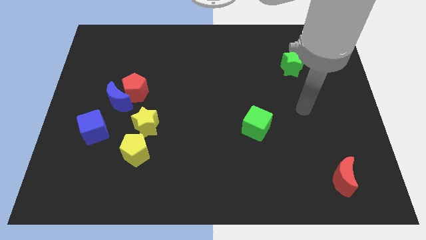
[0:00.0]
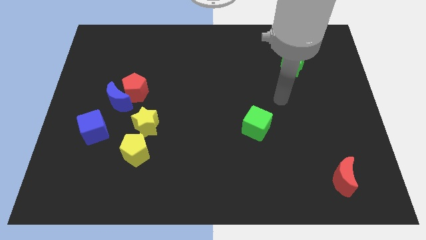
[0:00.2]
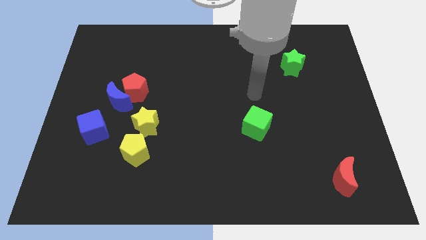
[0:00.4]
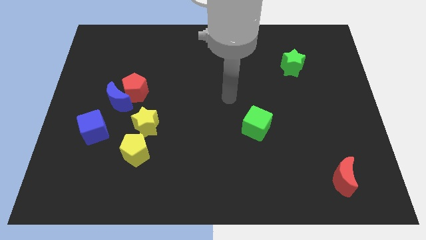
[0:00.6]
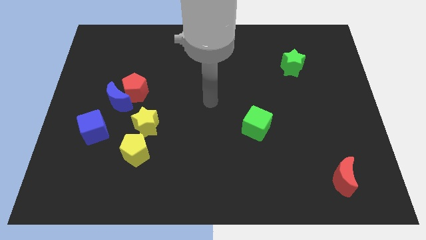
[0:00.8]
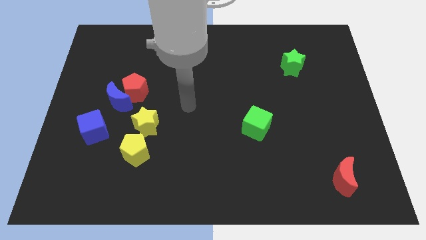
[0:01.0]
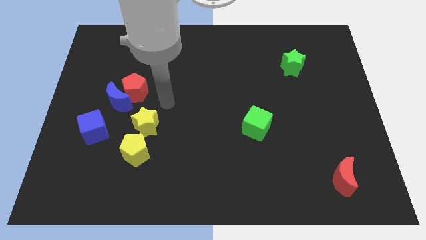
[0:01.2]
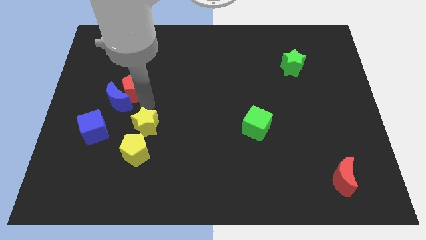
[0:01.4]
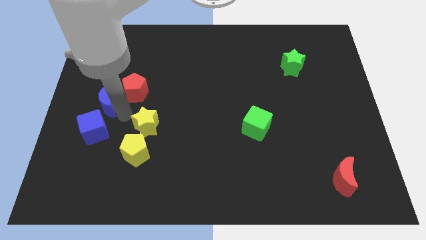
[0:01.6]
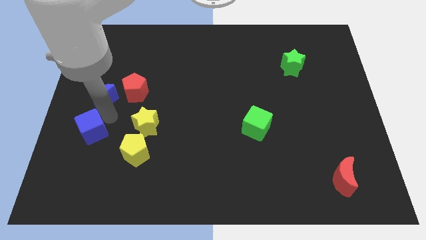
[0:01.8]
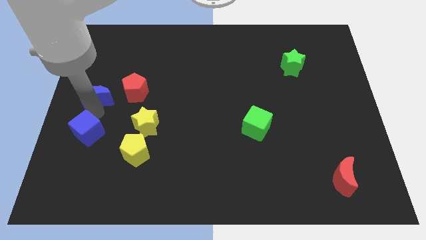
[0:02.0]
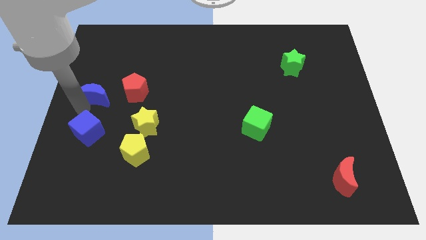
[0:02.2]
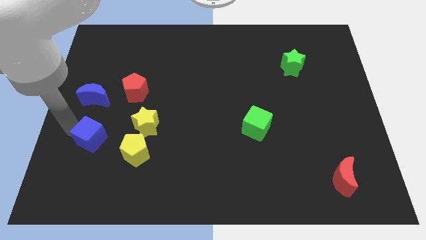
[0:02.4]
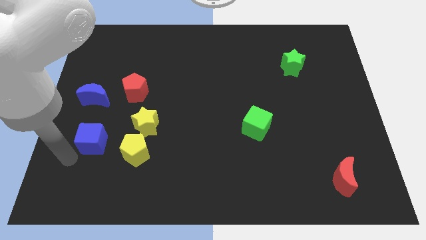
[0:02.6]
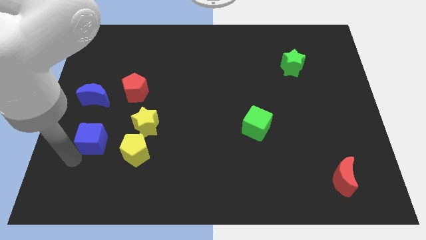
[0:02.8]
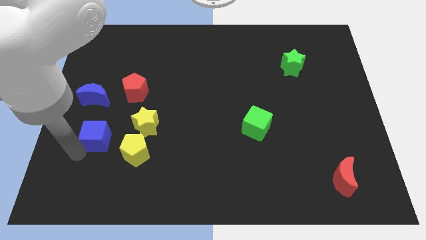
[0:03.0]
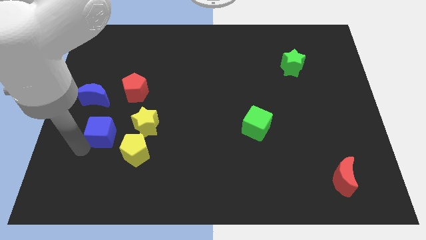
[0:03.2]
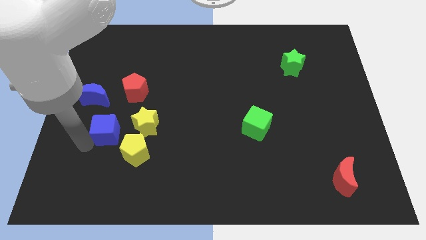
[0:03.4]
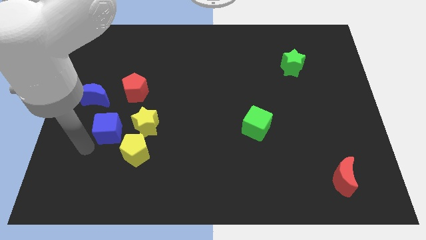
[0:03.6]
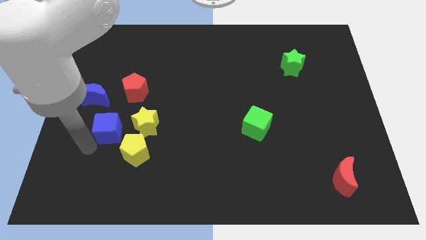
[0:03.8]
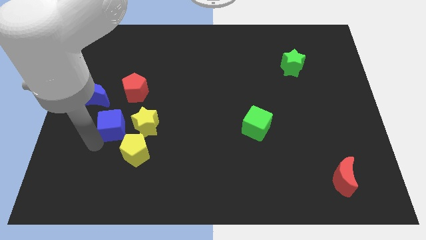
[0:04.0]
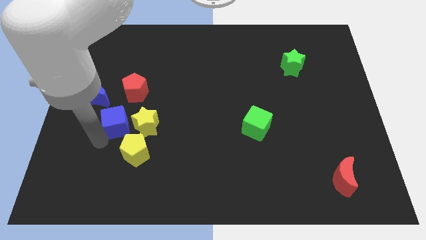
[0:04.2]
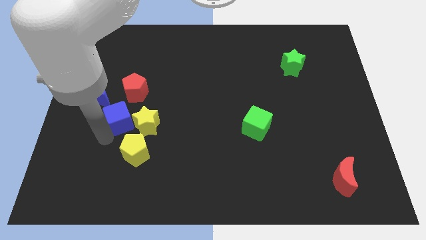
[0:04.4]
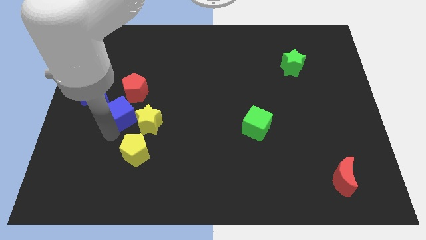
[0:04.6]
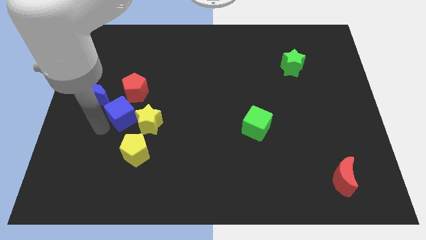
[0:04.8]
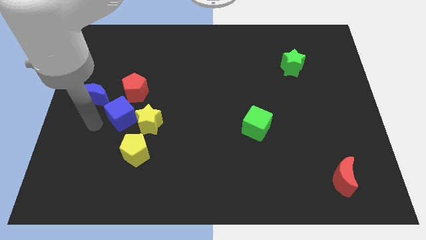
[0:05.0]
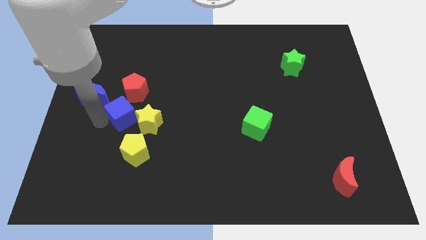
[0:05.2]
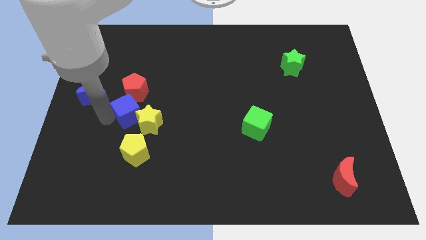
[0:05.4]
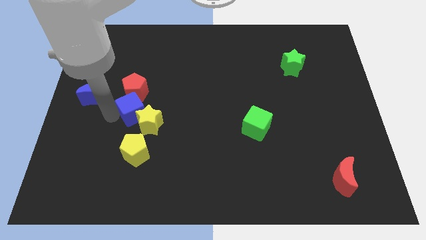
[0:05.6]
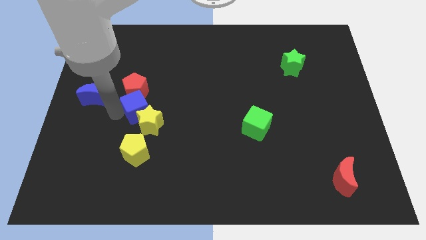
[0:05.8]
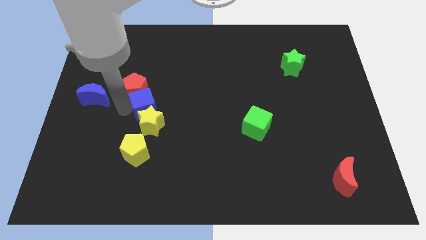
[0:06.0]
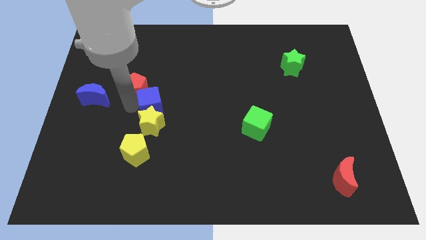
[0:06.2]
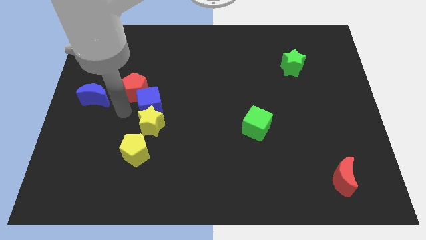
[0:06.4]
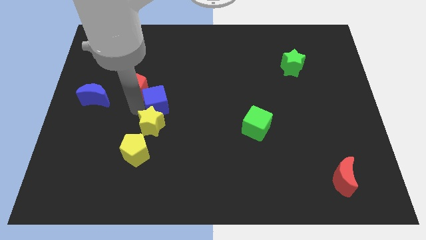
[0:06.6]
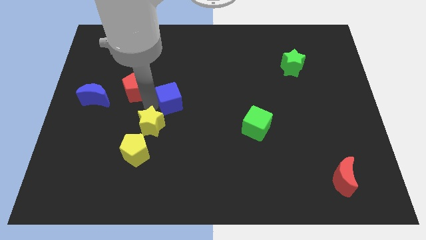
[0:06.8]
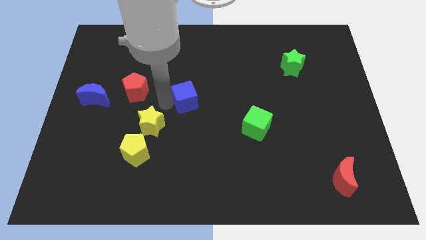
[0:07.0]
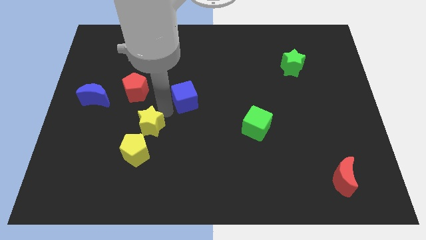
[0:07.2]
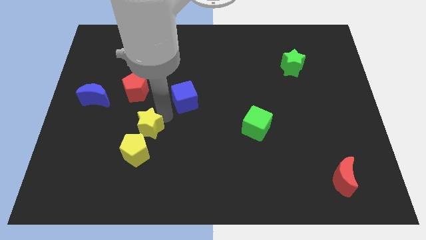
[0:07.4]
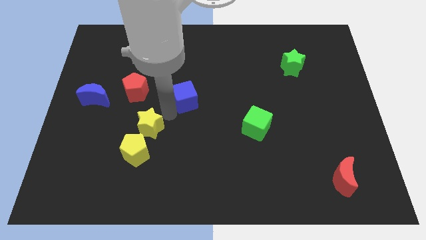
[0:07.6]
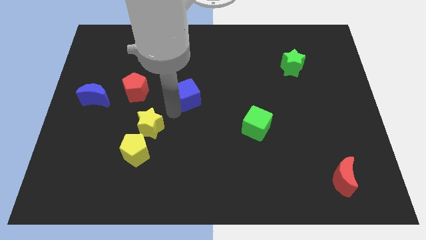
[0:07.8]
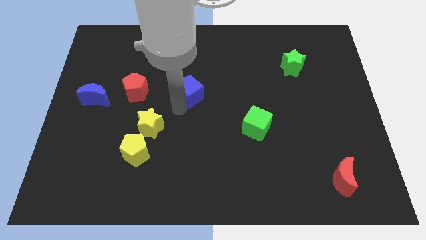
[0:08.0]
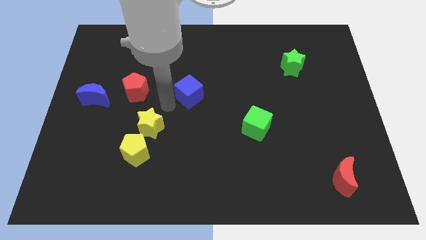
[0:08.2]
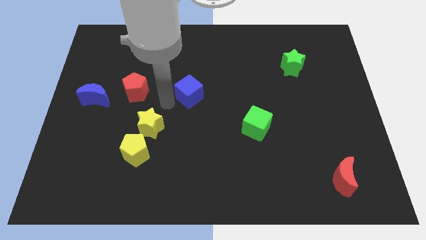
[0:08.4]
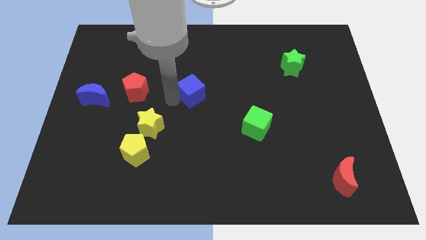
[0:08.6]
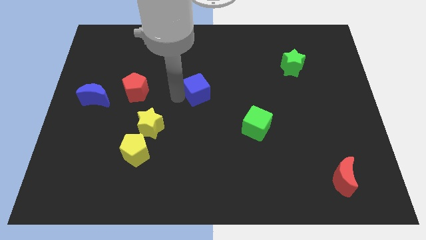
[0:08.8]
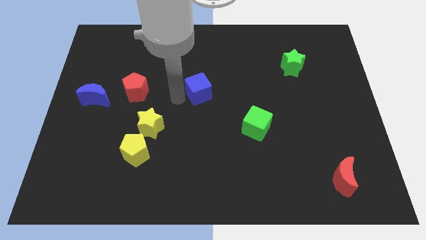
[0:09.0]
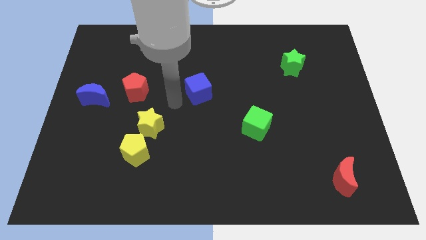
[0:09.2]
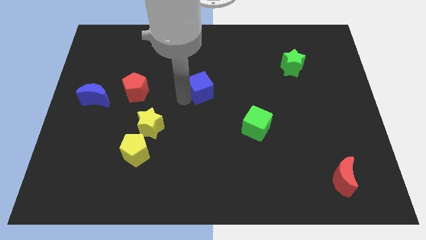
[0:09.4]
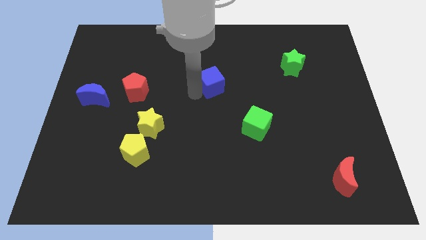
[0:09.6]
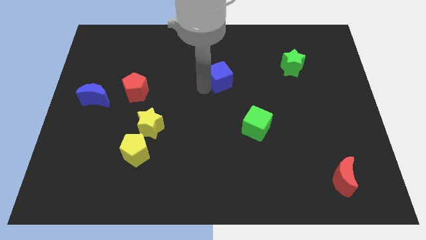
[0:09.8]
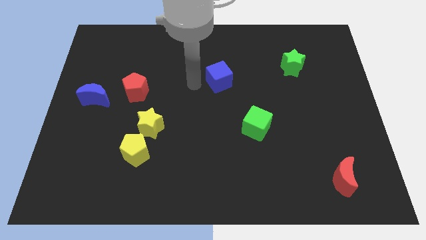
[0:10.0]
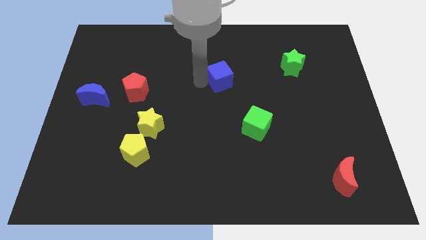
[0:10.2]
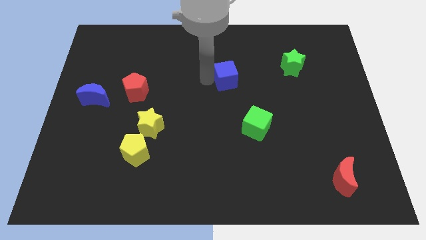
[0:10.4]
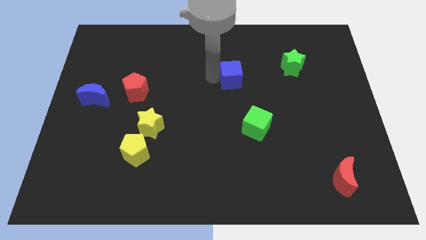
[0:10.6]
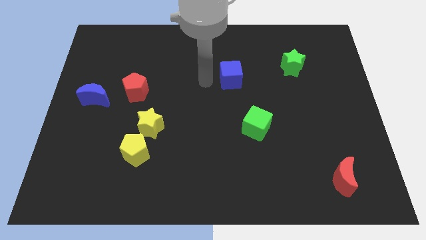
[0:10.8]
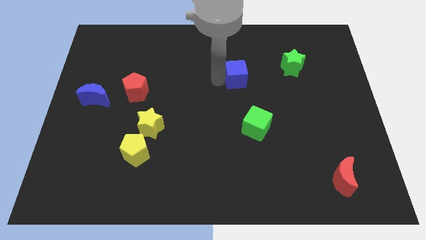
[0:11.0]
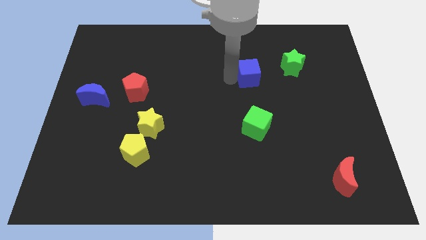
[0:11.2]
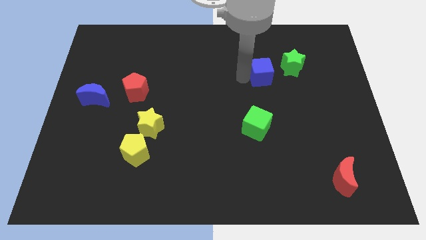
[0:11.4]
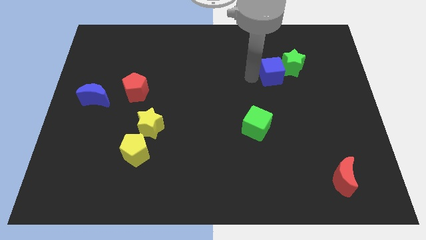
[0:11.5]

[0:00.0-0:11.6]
move the blue cube next to the green star

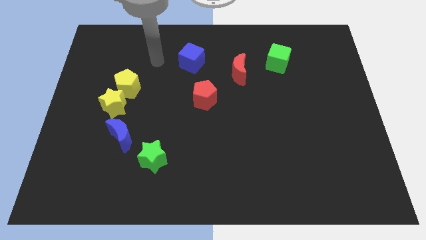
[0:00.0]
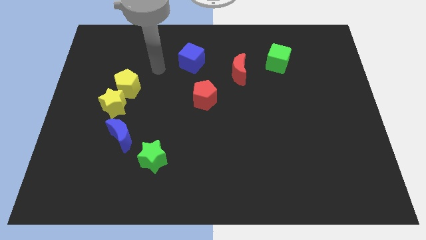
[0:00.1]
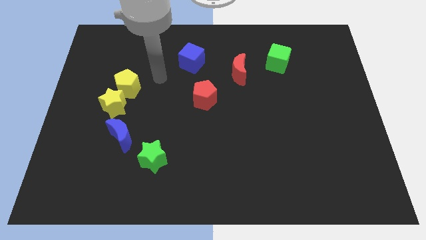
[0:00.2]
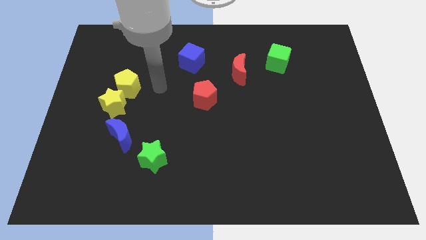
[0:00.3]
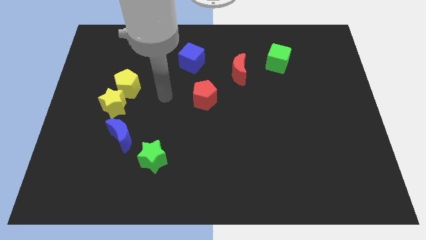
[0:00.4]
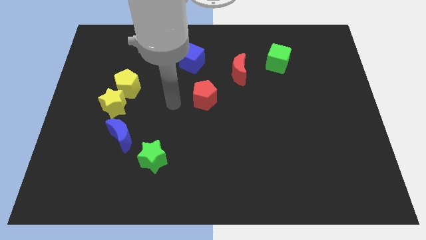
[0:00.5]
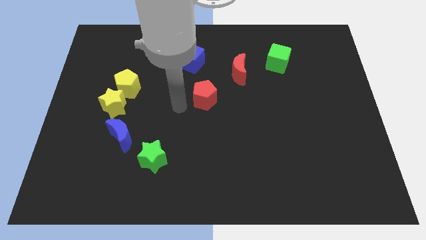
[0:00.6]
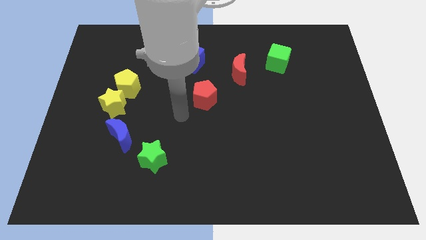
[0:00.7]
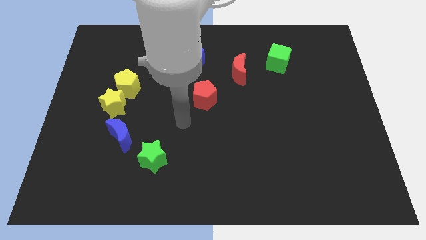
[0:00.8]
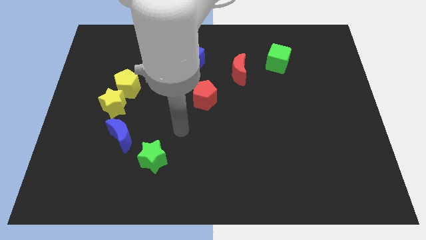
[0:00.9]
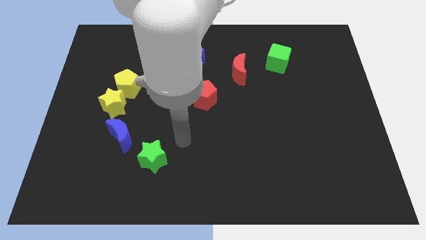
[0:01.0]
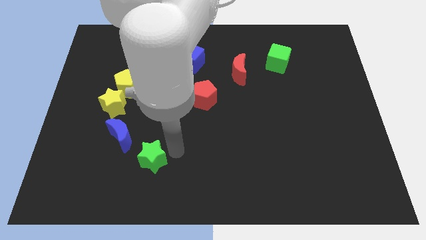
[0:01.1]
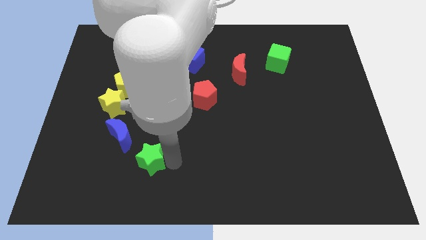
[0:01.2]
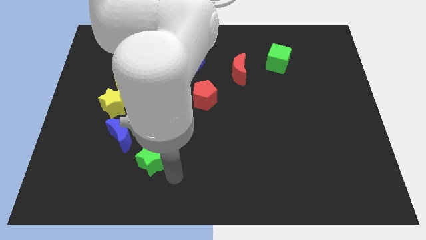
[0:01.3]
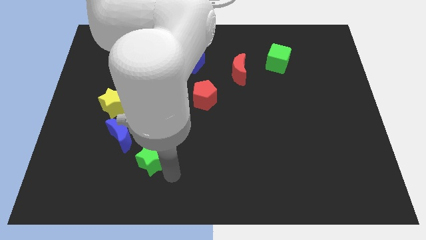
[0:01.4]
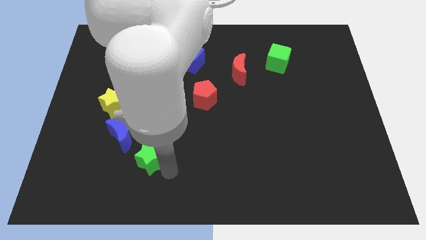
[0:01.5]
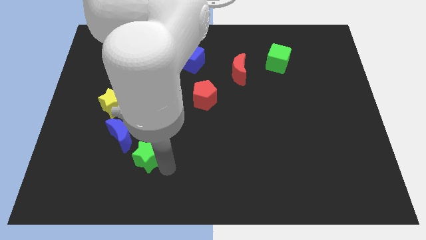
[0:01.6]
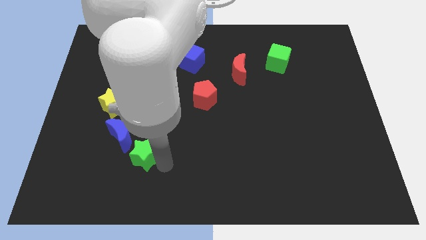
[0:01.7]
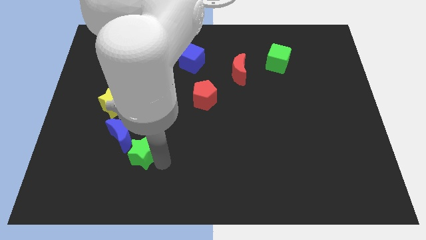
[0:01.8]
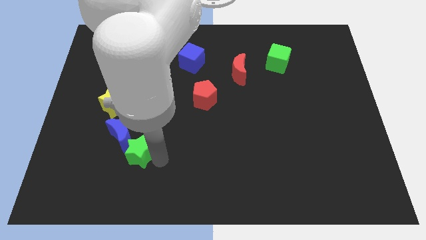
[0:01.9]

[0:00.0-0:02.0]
slide the green star to the blue moon
